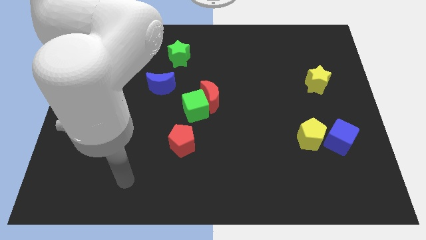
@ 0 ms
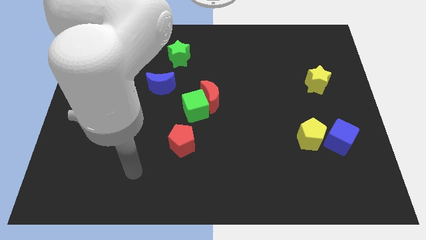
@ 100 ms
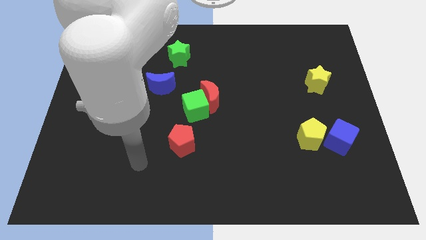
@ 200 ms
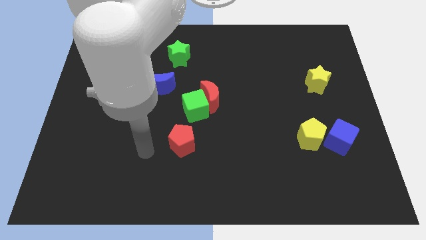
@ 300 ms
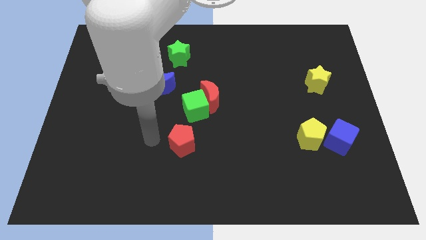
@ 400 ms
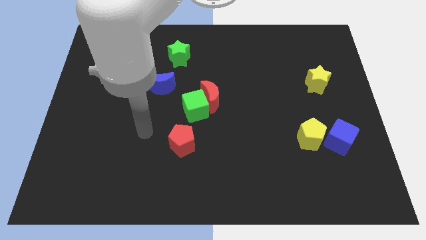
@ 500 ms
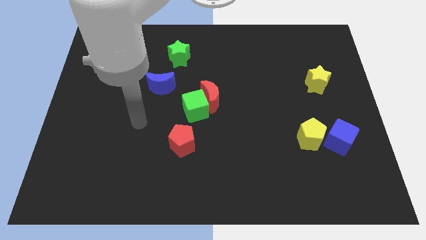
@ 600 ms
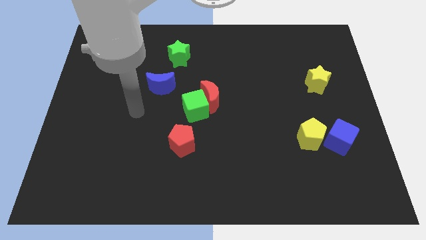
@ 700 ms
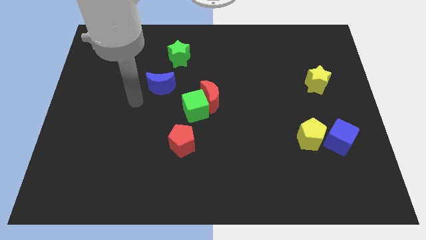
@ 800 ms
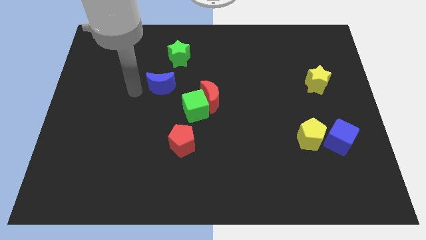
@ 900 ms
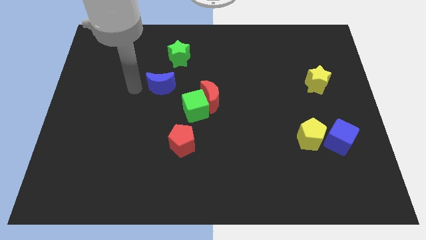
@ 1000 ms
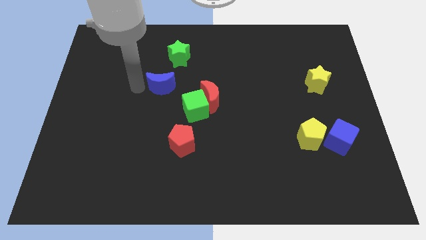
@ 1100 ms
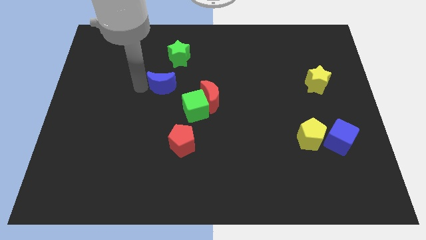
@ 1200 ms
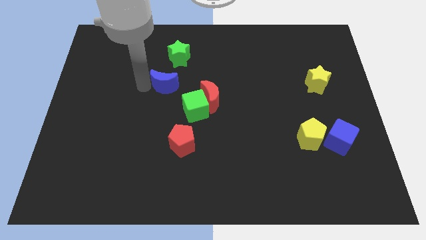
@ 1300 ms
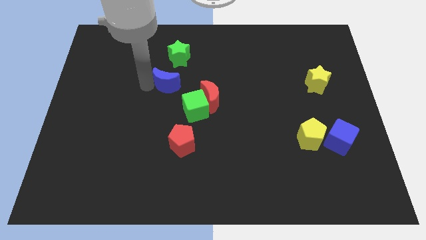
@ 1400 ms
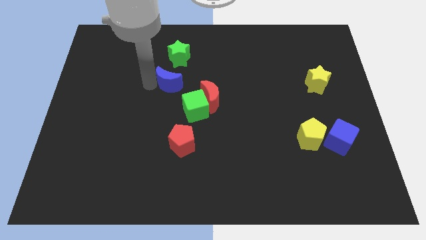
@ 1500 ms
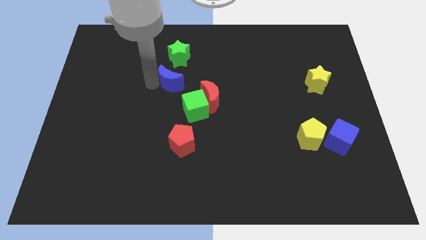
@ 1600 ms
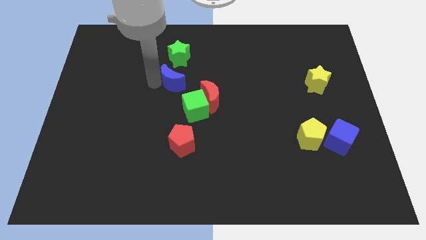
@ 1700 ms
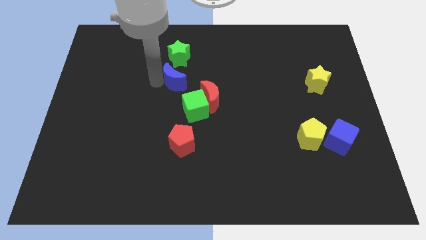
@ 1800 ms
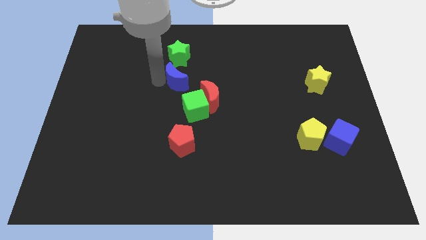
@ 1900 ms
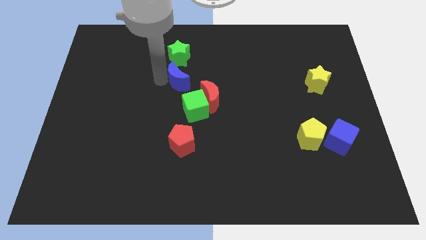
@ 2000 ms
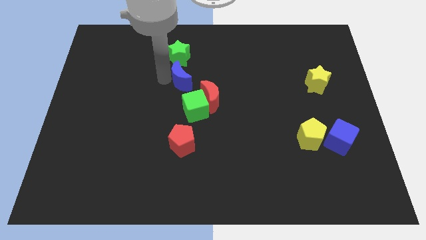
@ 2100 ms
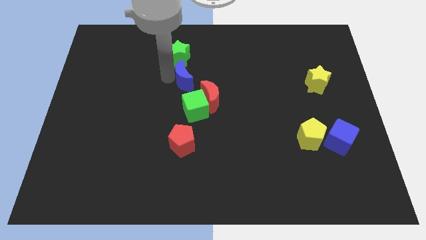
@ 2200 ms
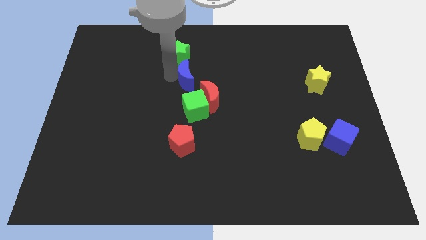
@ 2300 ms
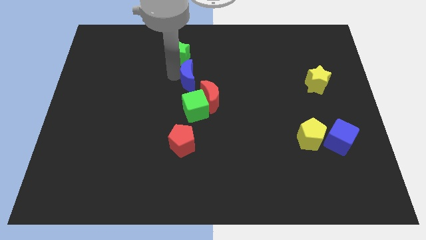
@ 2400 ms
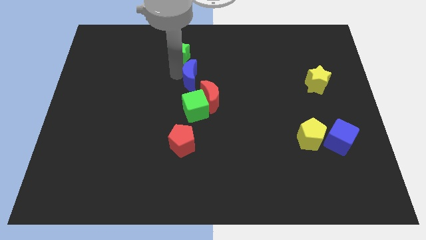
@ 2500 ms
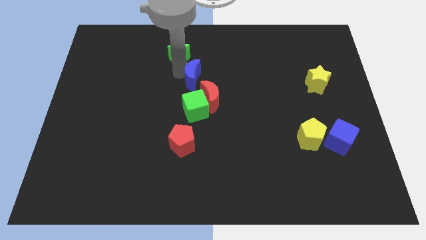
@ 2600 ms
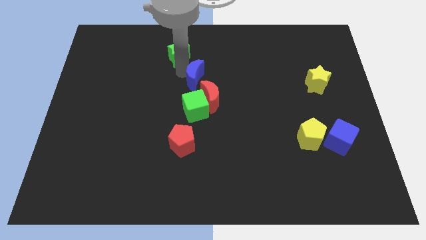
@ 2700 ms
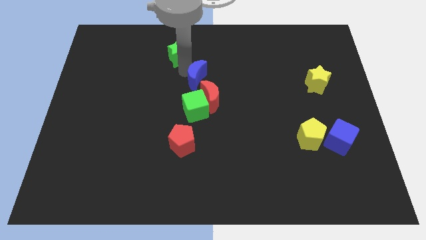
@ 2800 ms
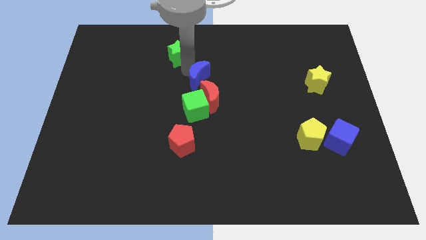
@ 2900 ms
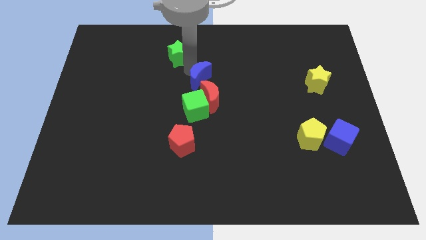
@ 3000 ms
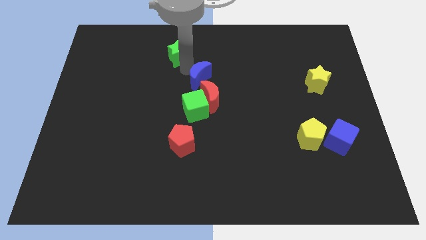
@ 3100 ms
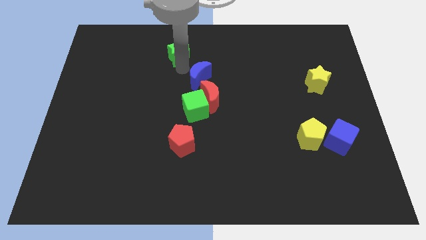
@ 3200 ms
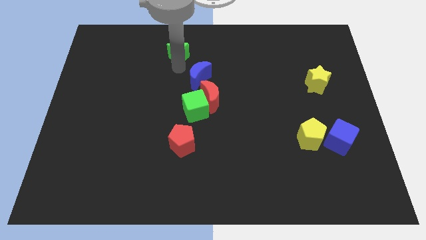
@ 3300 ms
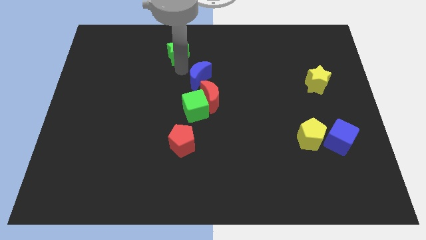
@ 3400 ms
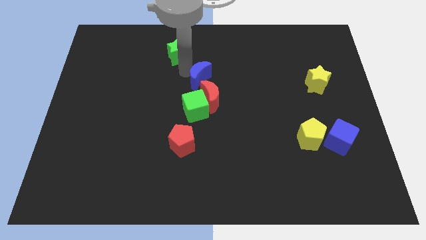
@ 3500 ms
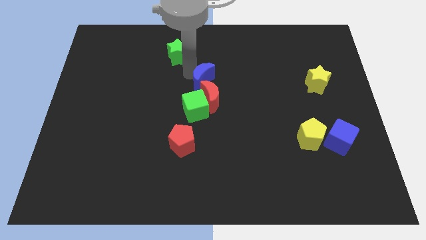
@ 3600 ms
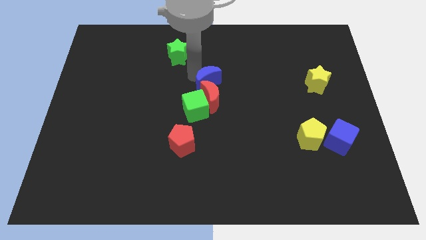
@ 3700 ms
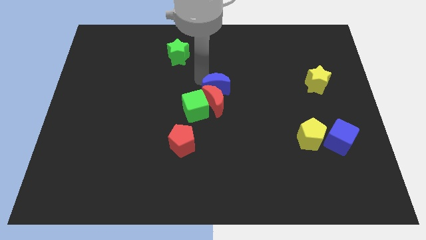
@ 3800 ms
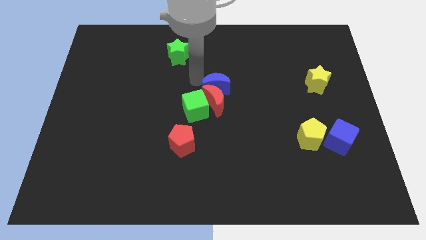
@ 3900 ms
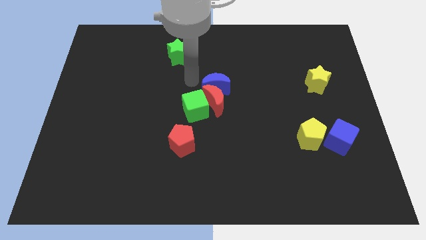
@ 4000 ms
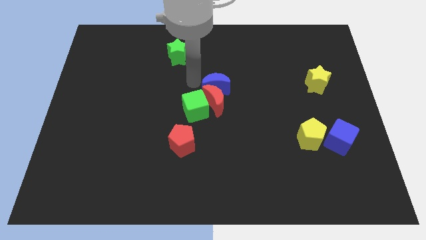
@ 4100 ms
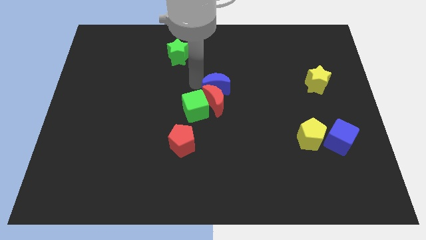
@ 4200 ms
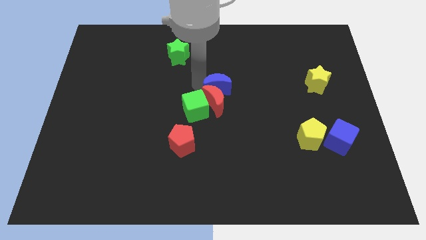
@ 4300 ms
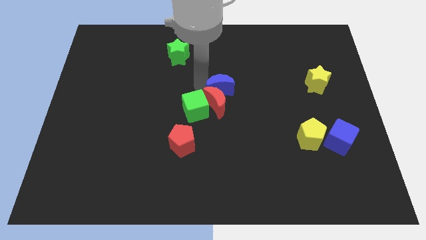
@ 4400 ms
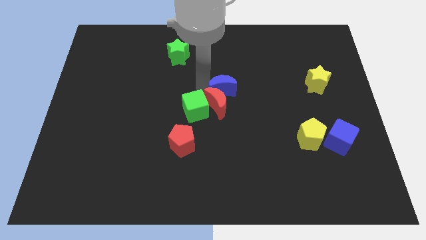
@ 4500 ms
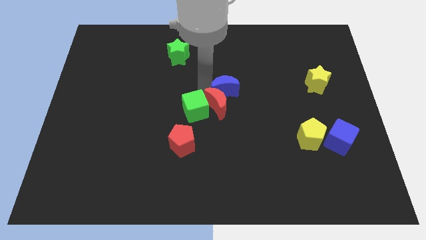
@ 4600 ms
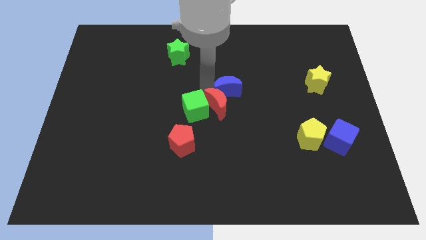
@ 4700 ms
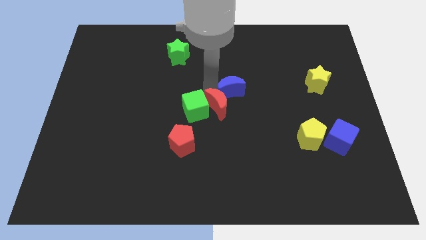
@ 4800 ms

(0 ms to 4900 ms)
move the blue moon to the right of the red moon

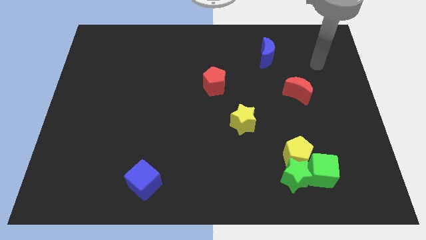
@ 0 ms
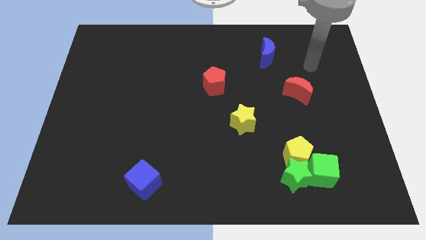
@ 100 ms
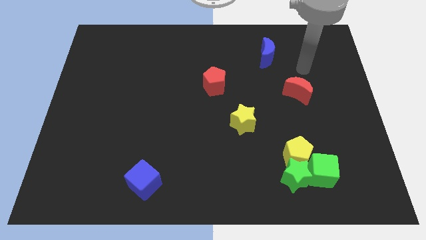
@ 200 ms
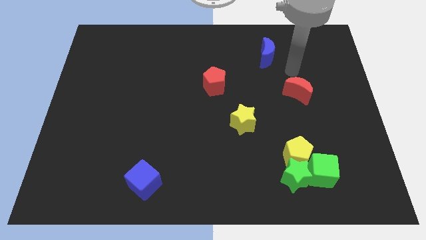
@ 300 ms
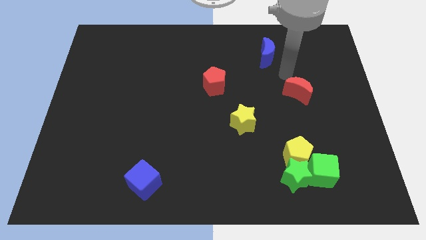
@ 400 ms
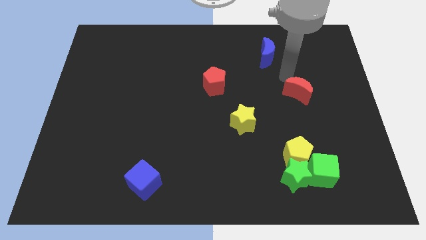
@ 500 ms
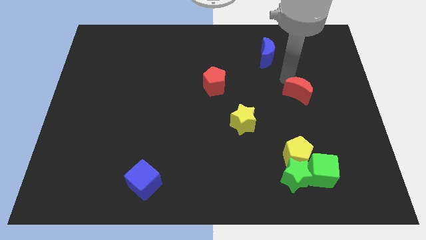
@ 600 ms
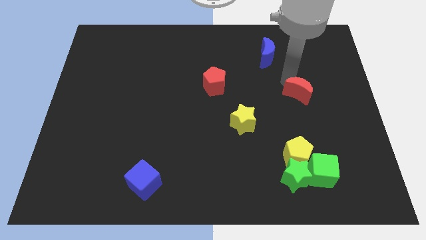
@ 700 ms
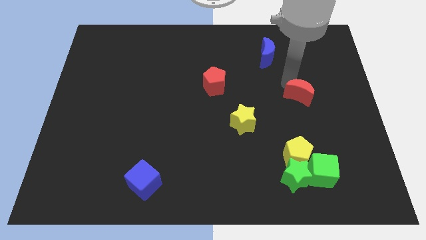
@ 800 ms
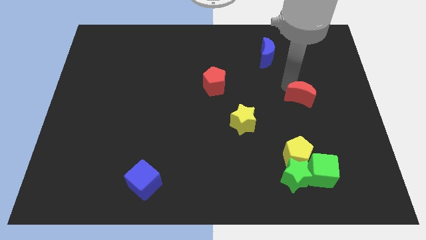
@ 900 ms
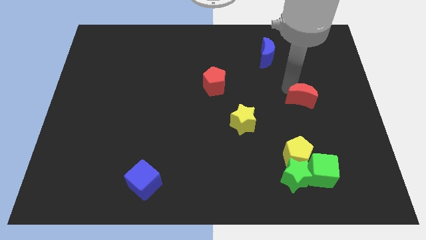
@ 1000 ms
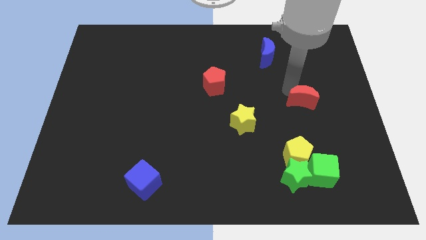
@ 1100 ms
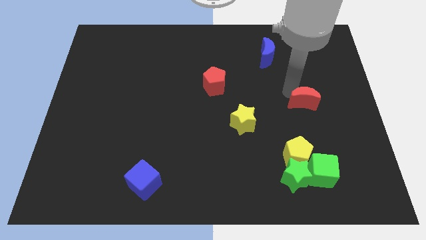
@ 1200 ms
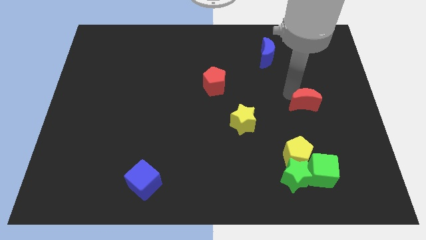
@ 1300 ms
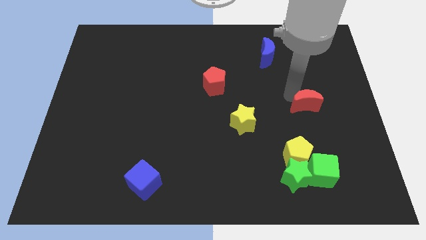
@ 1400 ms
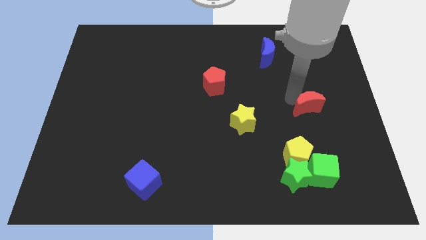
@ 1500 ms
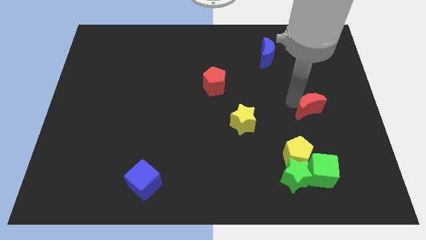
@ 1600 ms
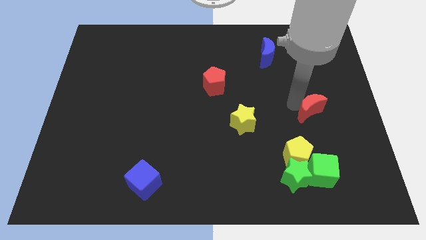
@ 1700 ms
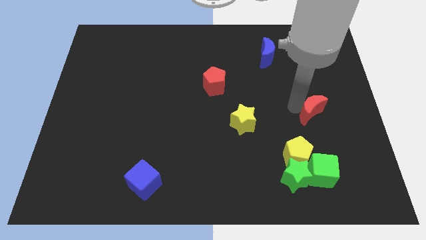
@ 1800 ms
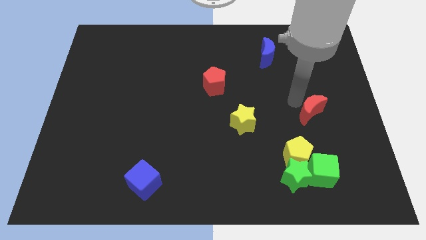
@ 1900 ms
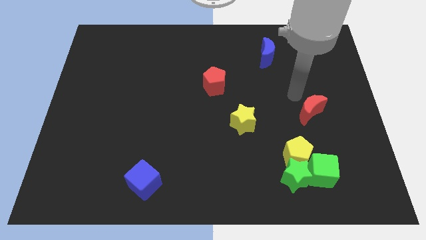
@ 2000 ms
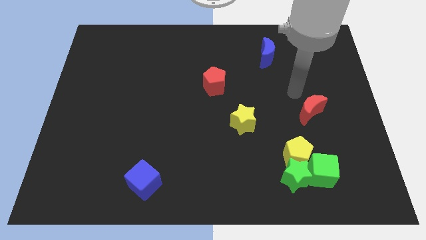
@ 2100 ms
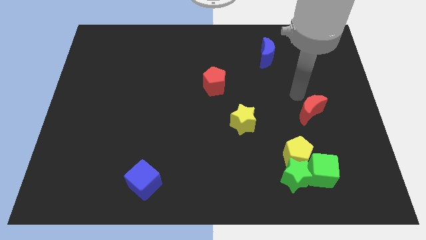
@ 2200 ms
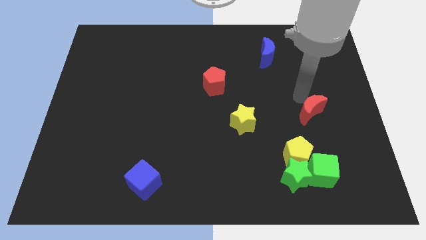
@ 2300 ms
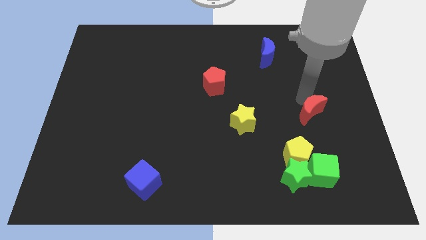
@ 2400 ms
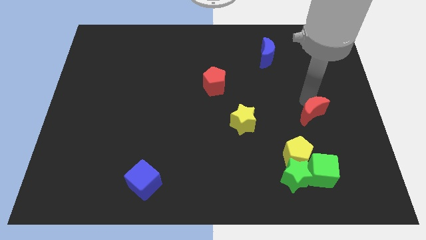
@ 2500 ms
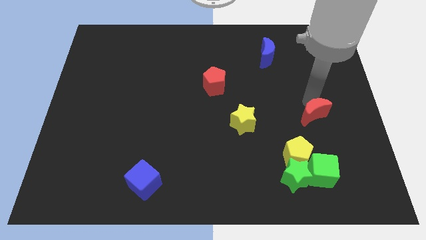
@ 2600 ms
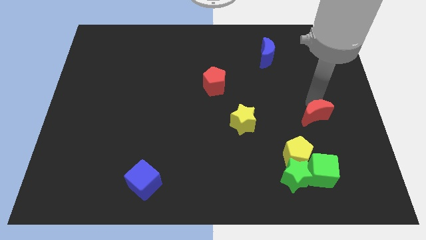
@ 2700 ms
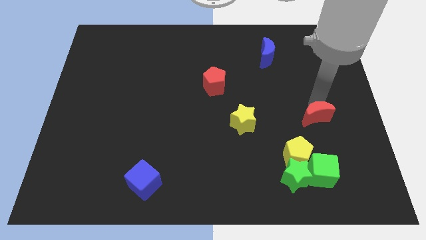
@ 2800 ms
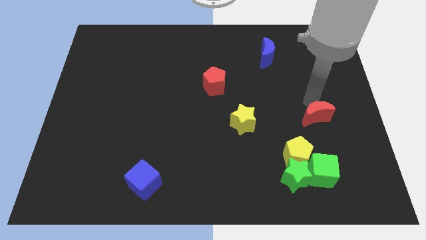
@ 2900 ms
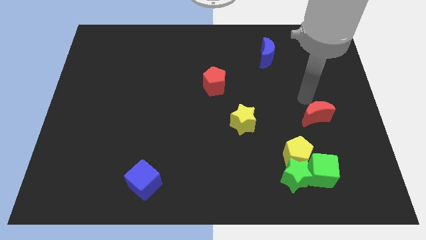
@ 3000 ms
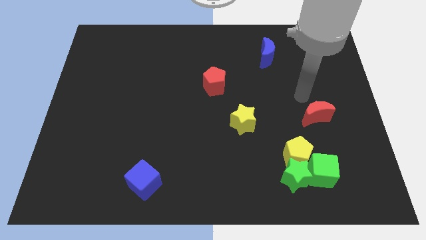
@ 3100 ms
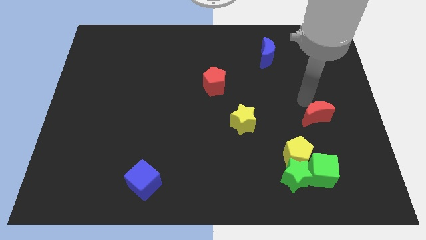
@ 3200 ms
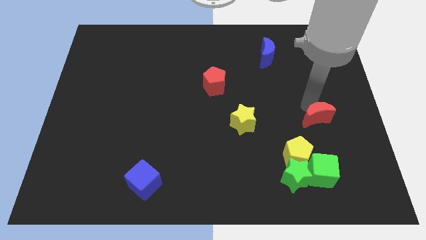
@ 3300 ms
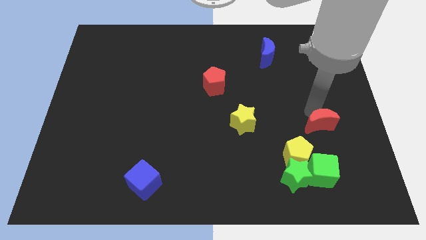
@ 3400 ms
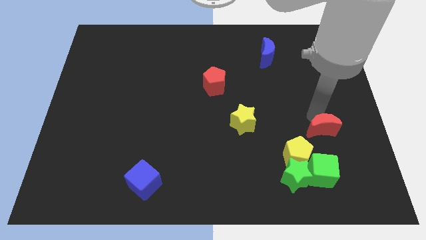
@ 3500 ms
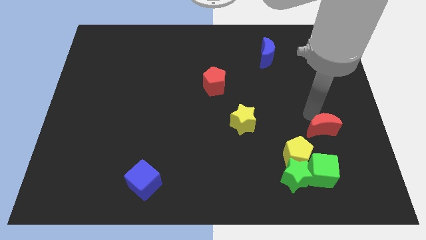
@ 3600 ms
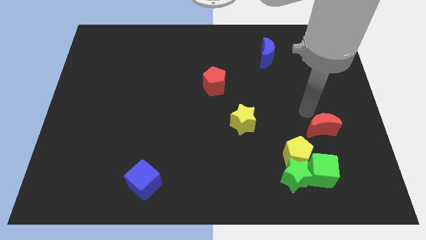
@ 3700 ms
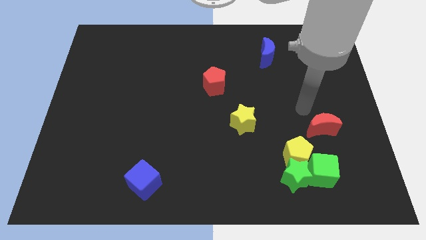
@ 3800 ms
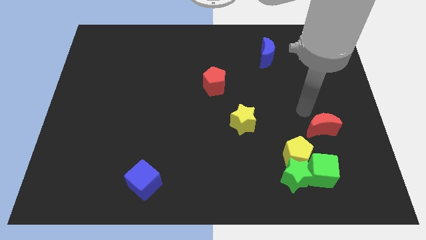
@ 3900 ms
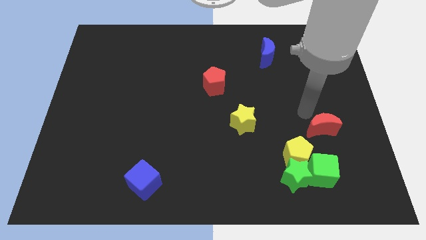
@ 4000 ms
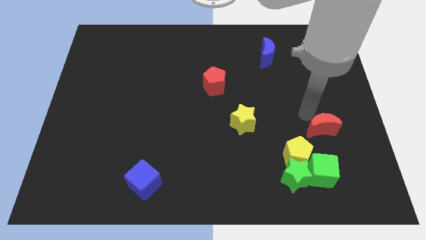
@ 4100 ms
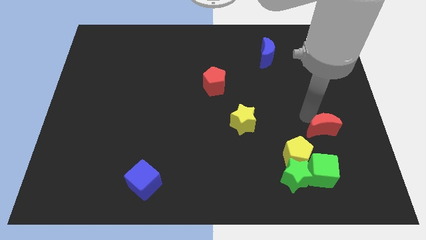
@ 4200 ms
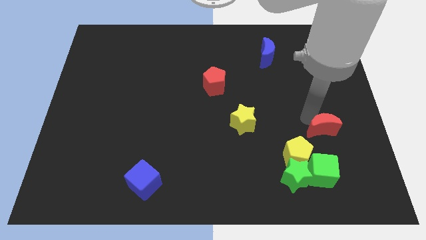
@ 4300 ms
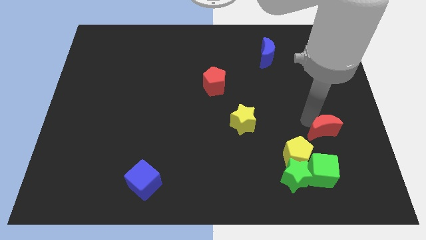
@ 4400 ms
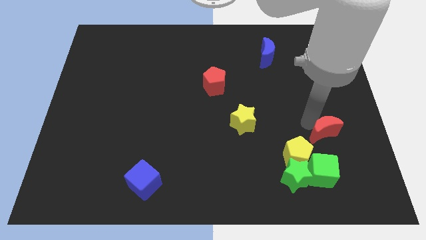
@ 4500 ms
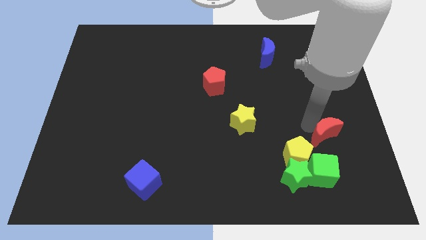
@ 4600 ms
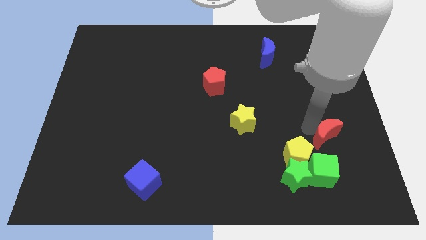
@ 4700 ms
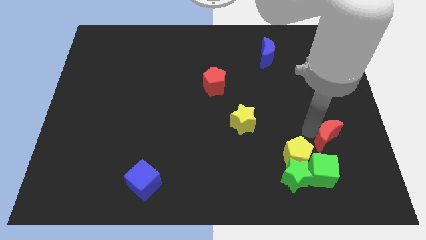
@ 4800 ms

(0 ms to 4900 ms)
move the red moon just right of the yellow pentagon
